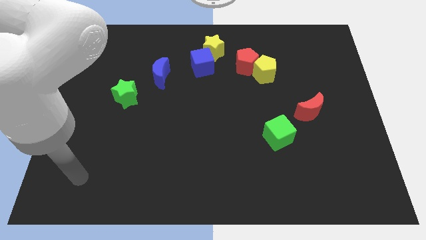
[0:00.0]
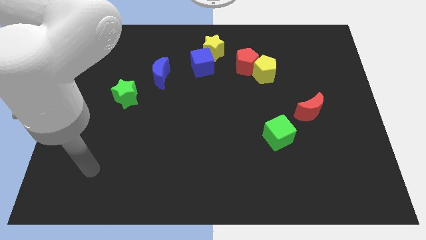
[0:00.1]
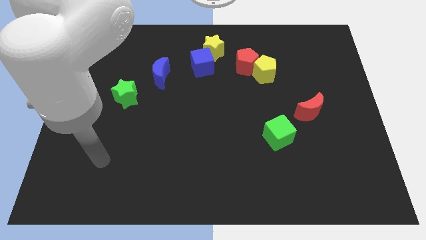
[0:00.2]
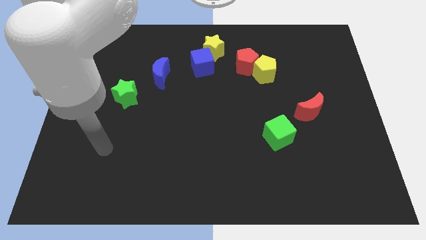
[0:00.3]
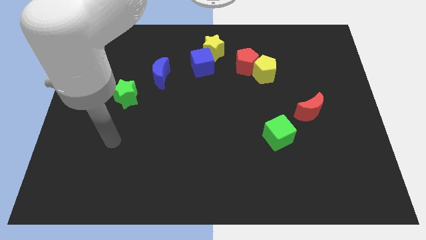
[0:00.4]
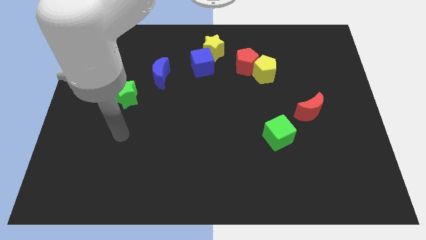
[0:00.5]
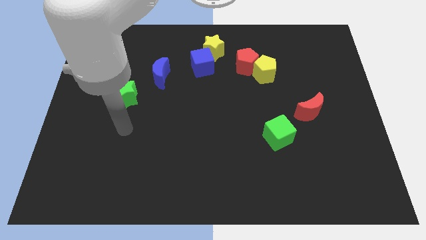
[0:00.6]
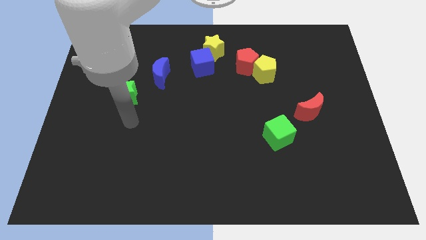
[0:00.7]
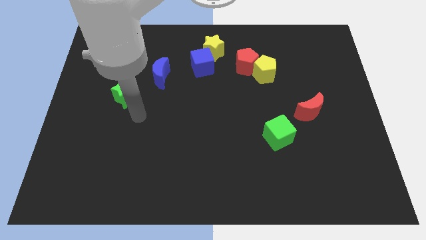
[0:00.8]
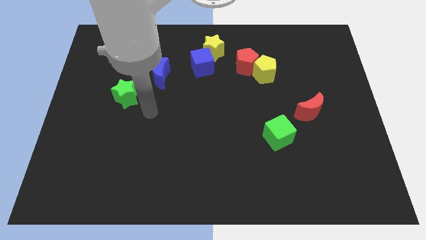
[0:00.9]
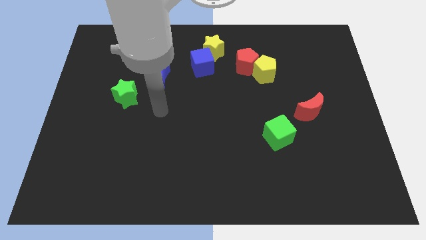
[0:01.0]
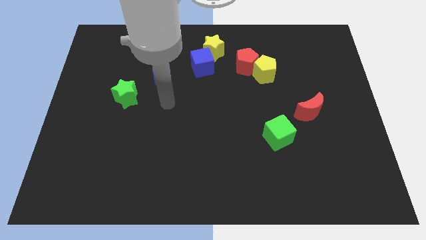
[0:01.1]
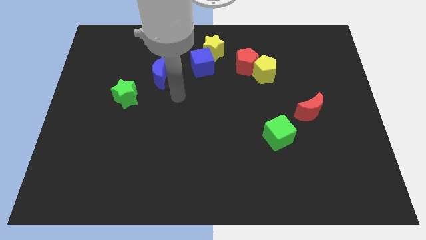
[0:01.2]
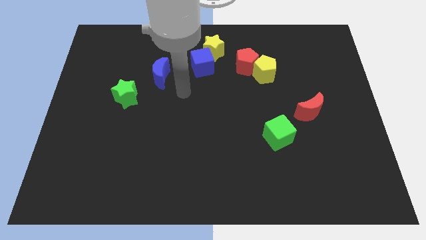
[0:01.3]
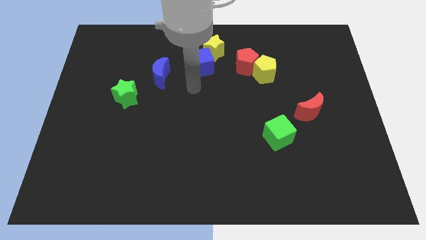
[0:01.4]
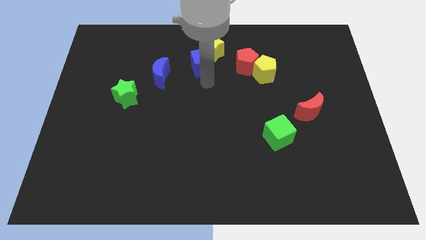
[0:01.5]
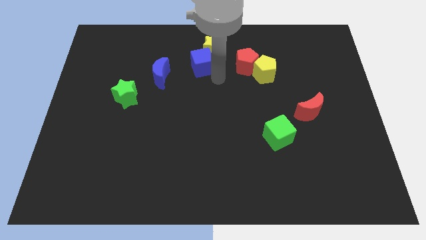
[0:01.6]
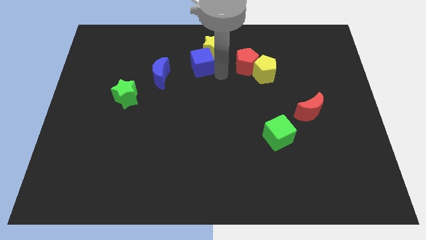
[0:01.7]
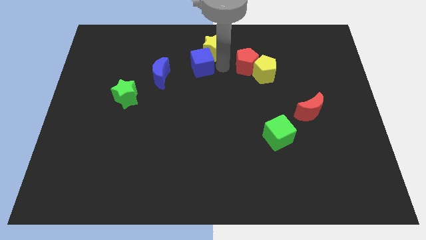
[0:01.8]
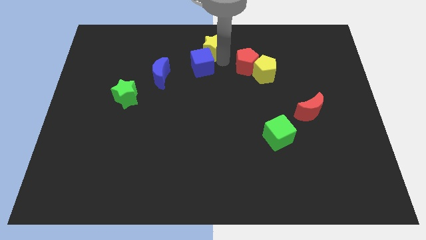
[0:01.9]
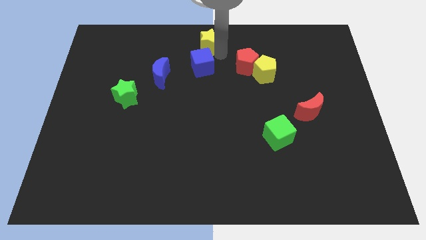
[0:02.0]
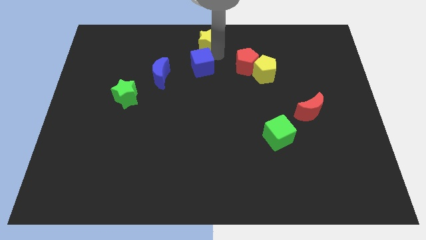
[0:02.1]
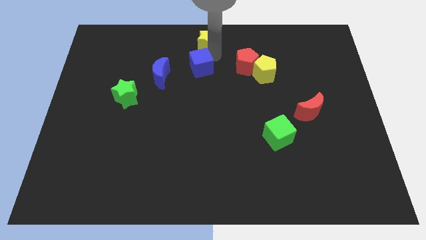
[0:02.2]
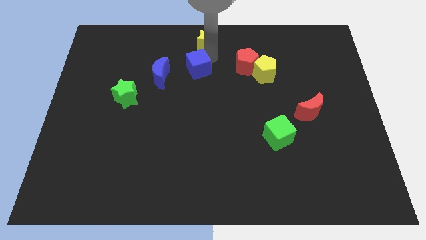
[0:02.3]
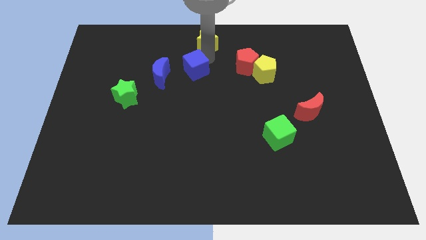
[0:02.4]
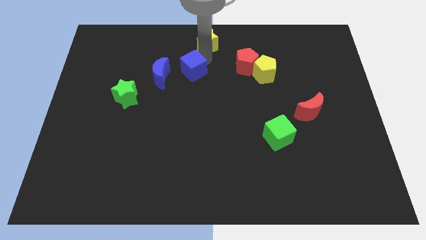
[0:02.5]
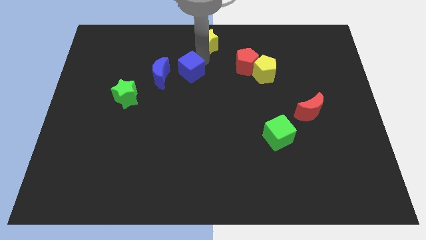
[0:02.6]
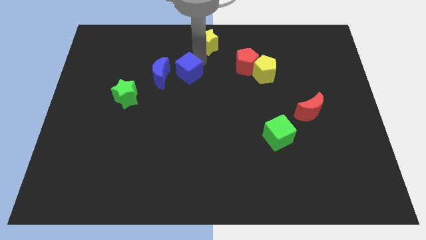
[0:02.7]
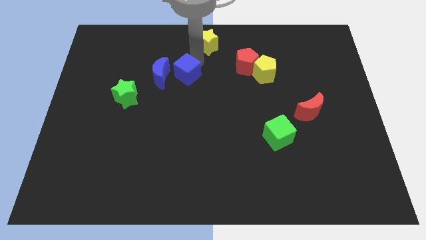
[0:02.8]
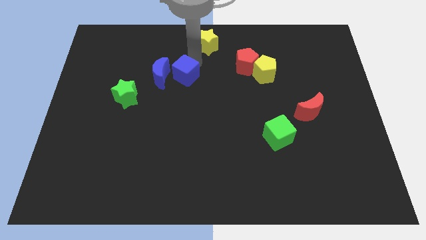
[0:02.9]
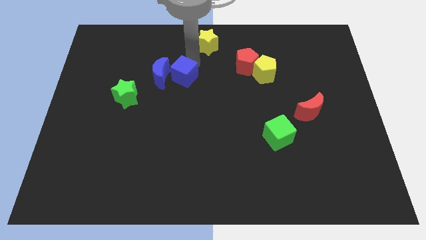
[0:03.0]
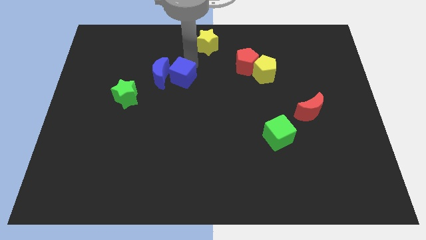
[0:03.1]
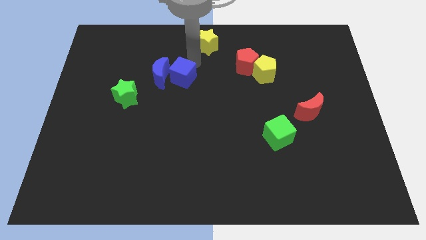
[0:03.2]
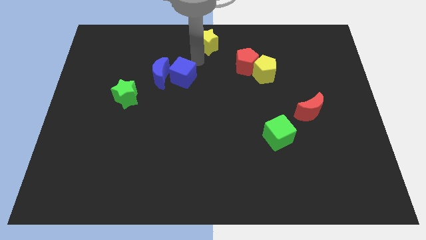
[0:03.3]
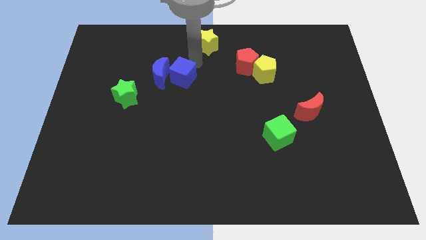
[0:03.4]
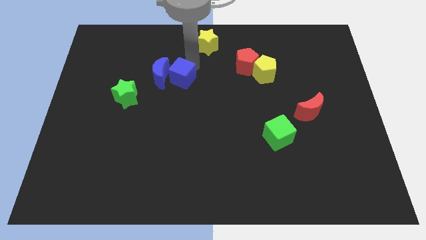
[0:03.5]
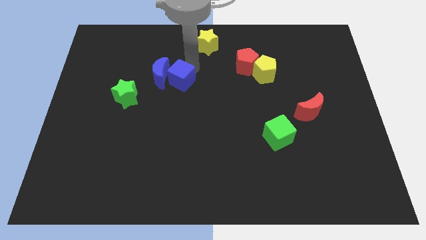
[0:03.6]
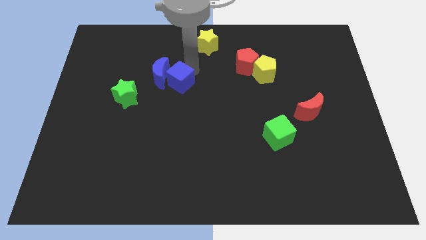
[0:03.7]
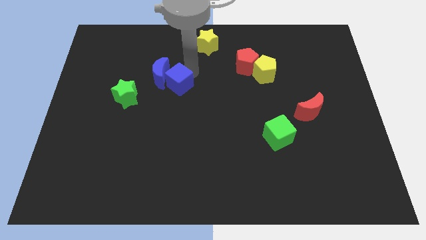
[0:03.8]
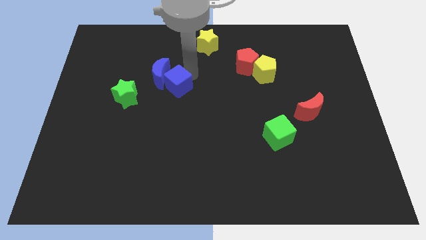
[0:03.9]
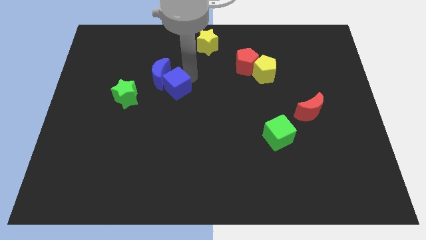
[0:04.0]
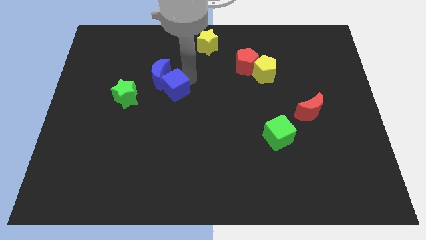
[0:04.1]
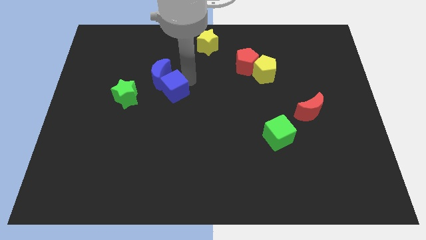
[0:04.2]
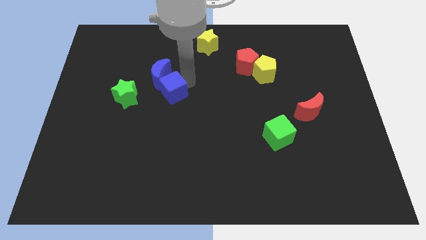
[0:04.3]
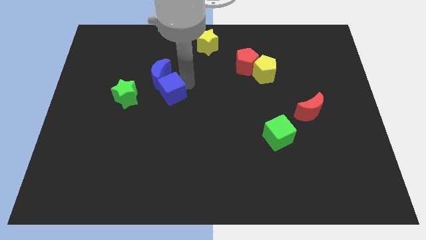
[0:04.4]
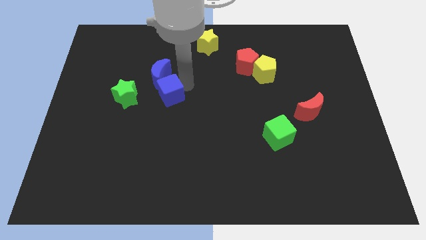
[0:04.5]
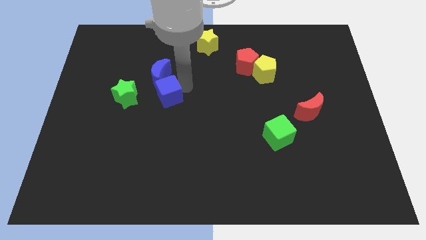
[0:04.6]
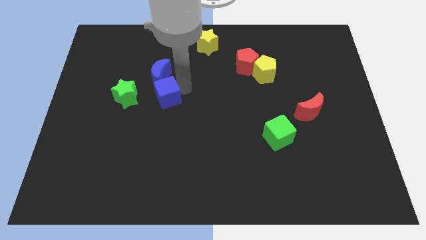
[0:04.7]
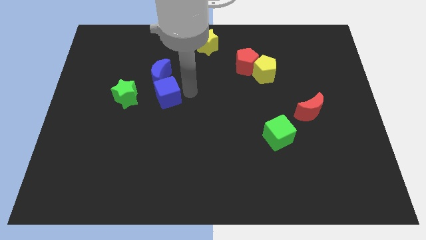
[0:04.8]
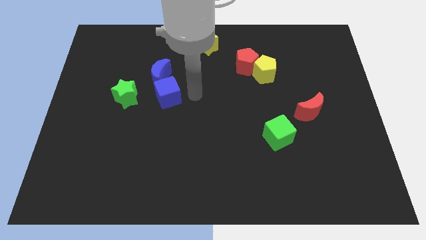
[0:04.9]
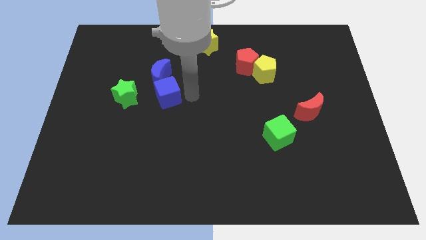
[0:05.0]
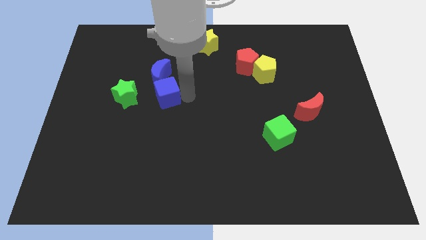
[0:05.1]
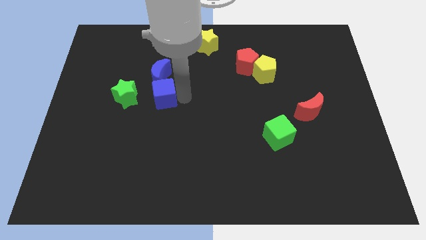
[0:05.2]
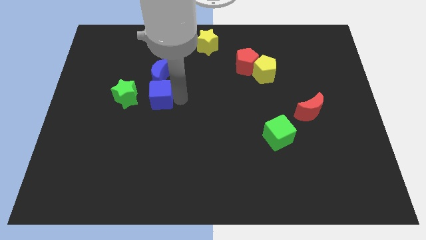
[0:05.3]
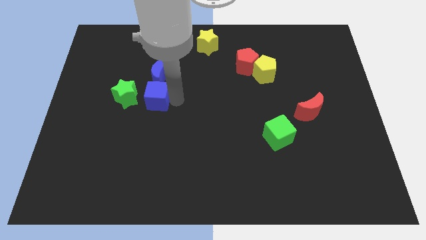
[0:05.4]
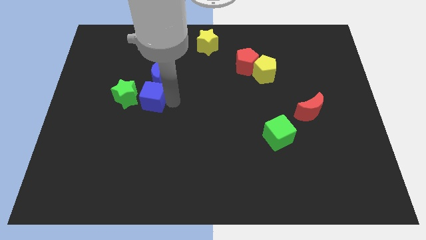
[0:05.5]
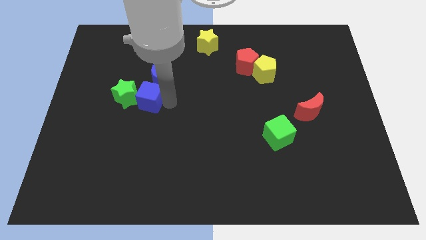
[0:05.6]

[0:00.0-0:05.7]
push the blue cube next to the green star

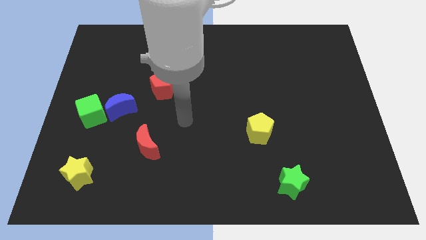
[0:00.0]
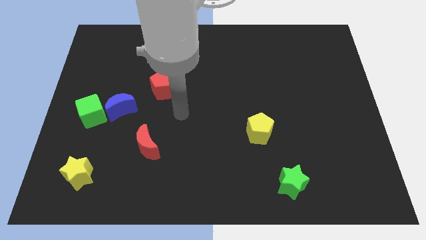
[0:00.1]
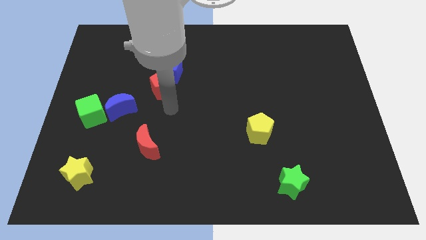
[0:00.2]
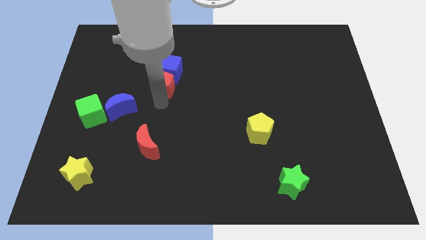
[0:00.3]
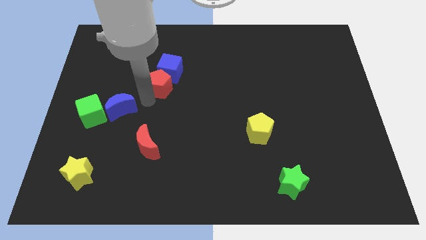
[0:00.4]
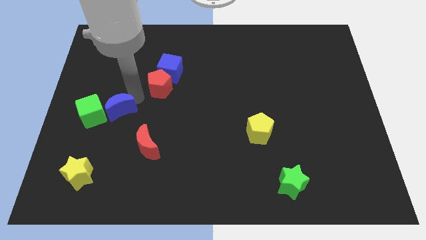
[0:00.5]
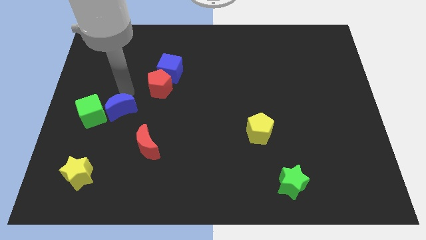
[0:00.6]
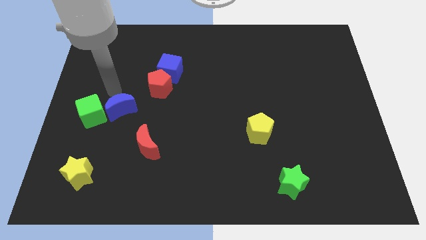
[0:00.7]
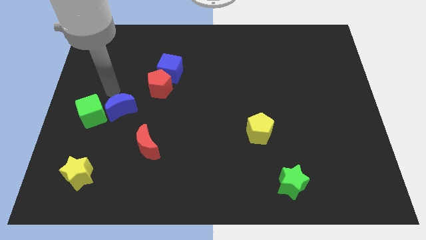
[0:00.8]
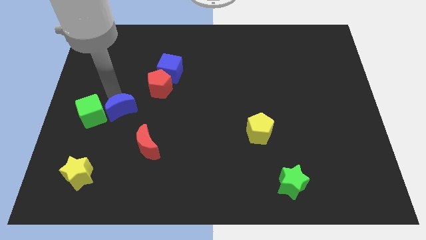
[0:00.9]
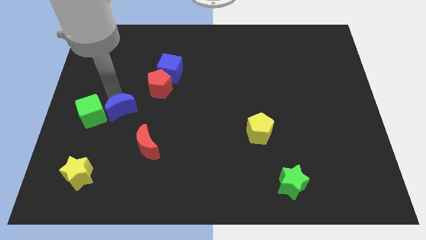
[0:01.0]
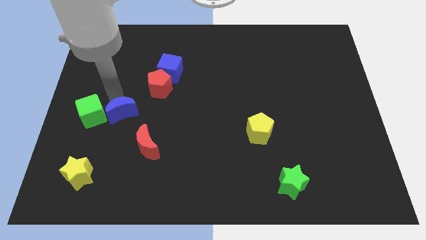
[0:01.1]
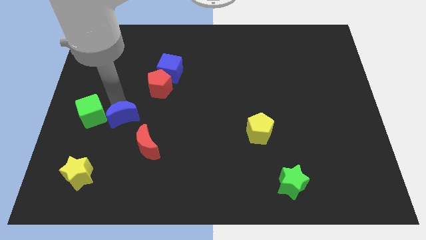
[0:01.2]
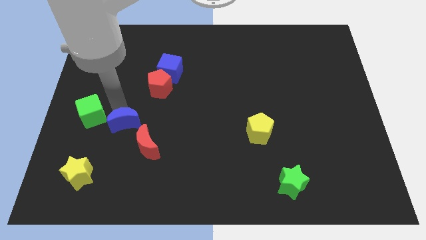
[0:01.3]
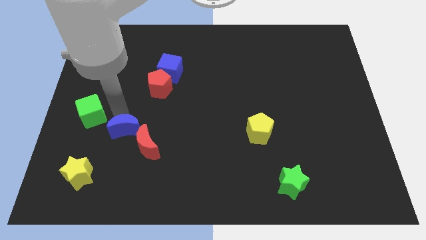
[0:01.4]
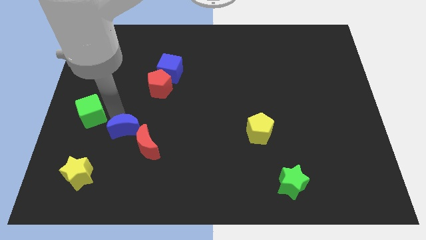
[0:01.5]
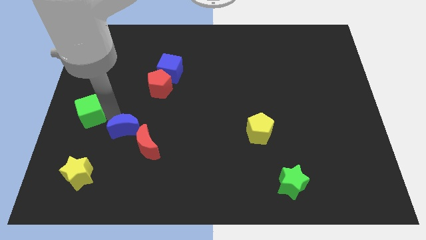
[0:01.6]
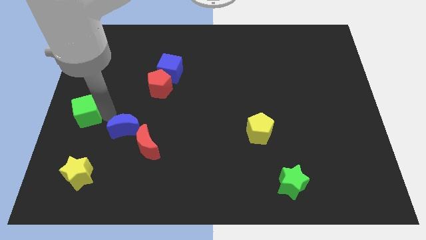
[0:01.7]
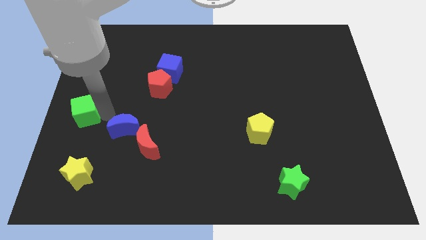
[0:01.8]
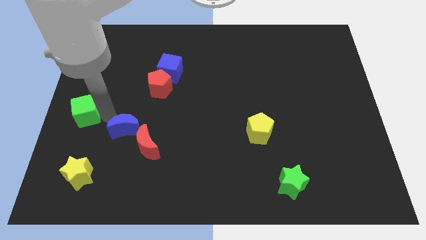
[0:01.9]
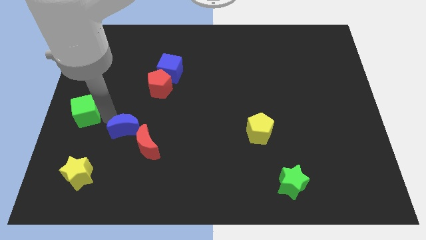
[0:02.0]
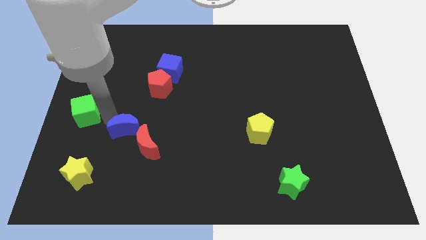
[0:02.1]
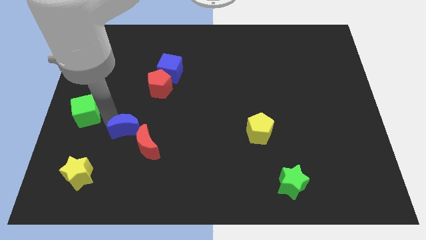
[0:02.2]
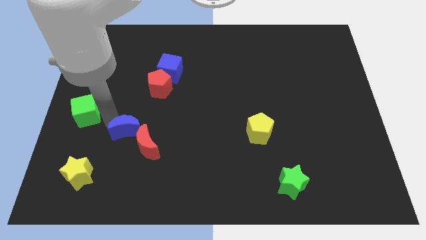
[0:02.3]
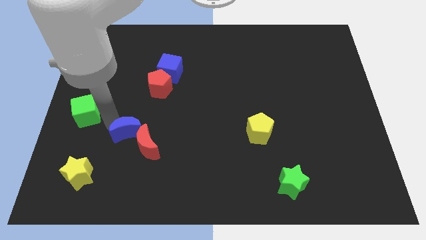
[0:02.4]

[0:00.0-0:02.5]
slide the blue moon towards the red moon
